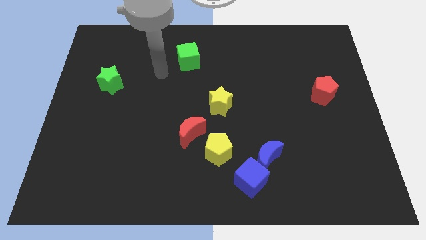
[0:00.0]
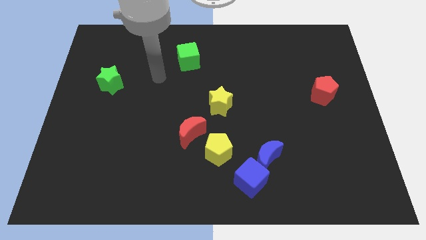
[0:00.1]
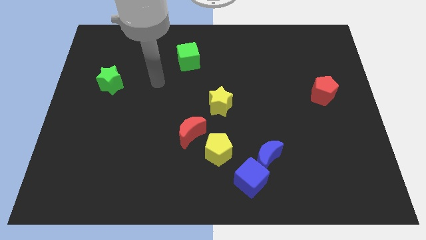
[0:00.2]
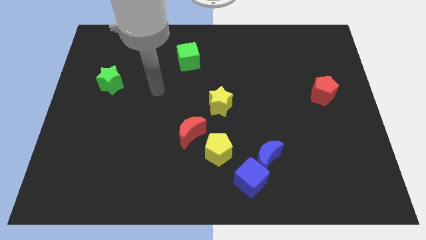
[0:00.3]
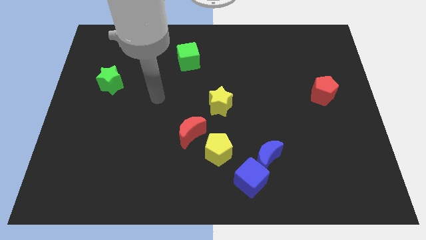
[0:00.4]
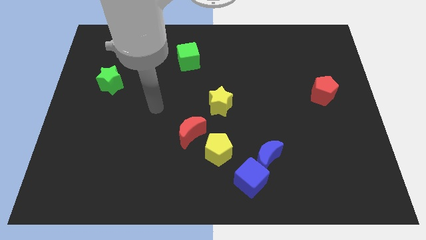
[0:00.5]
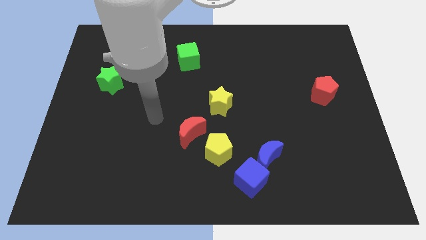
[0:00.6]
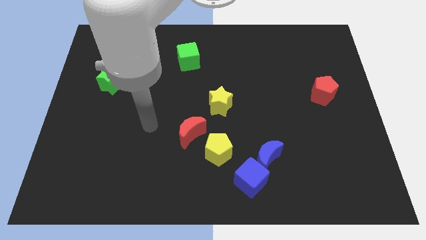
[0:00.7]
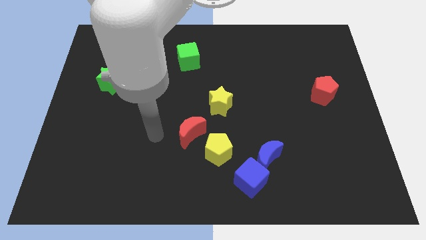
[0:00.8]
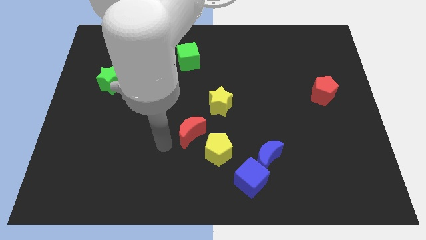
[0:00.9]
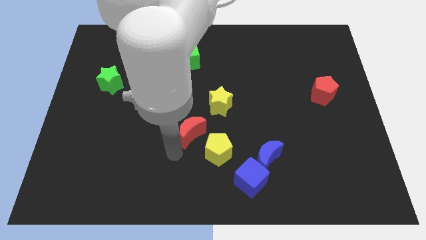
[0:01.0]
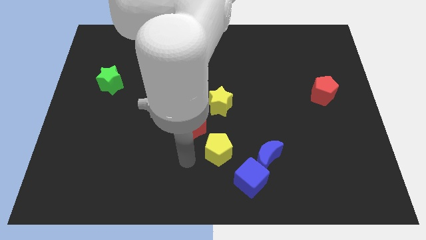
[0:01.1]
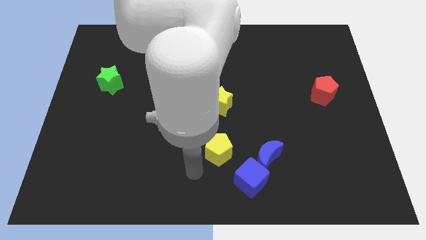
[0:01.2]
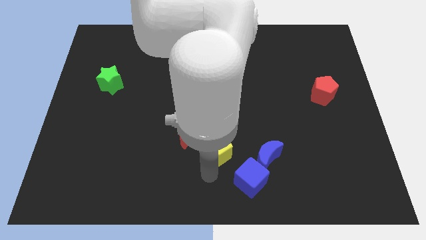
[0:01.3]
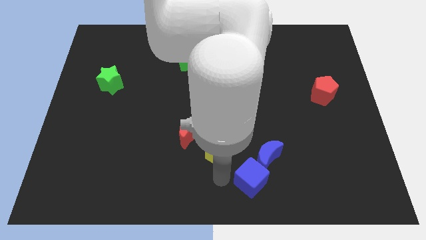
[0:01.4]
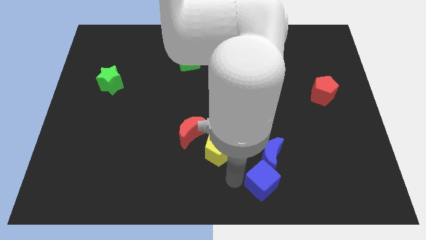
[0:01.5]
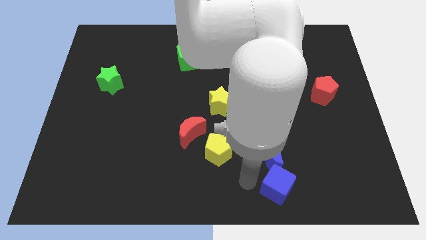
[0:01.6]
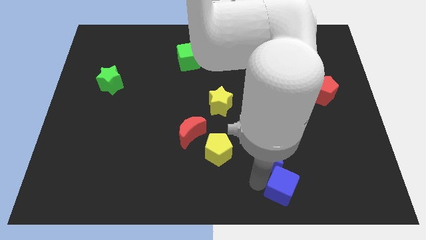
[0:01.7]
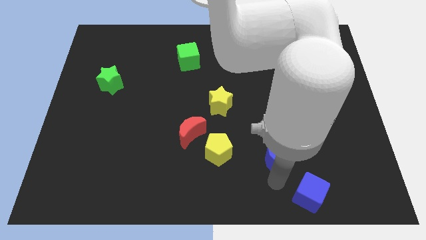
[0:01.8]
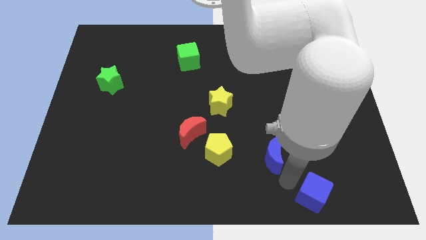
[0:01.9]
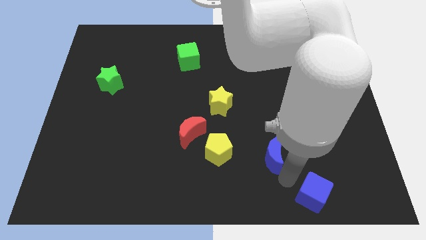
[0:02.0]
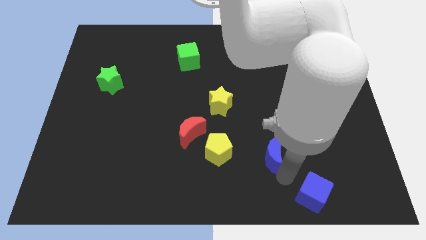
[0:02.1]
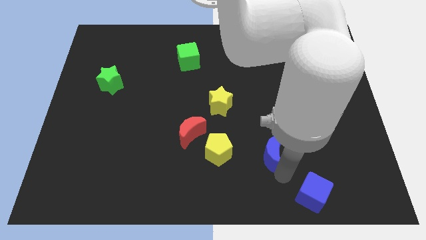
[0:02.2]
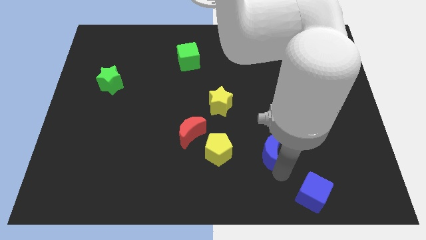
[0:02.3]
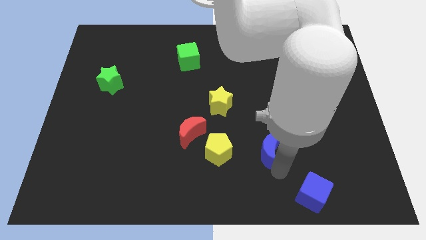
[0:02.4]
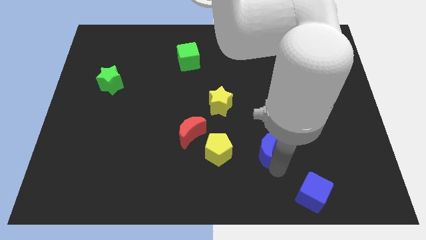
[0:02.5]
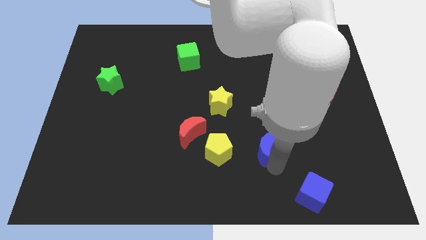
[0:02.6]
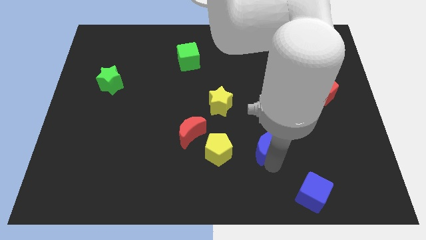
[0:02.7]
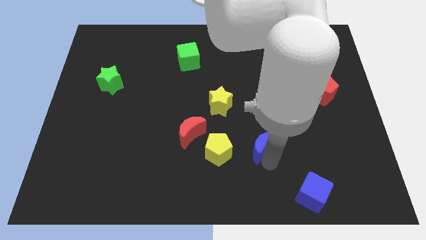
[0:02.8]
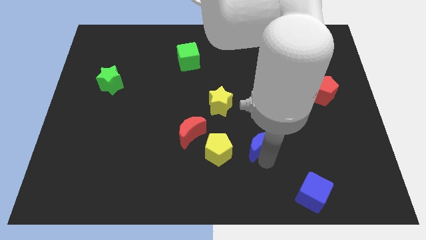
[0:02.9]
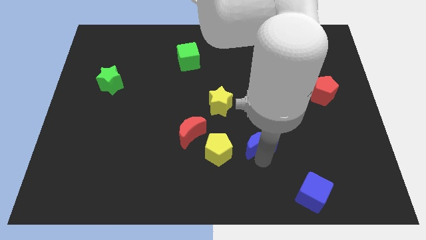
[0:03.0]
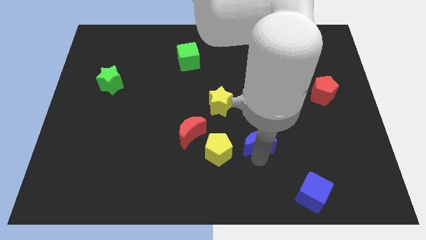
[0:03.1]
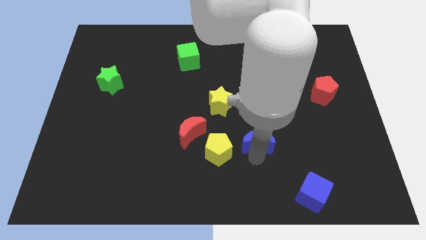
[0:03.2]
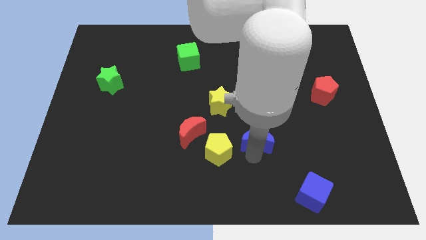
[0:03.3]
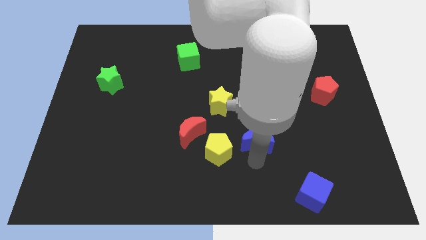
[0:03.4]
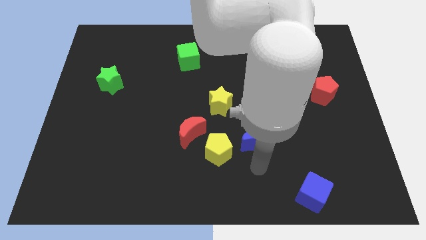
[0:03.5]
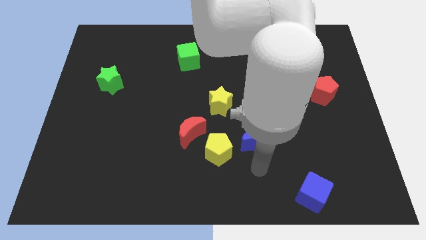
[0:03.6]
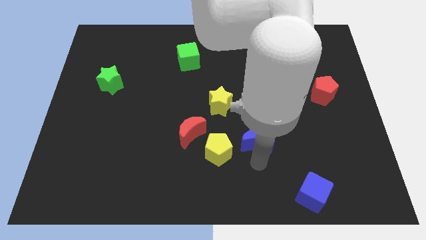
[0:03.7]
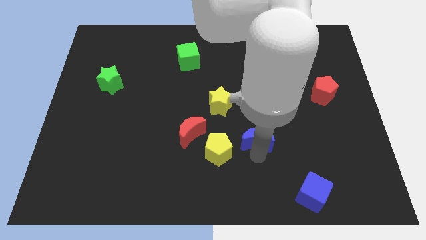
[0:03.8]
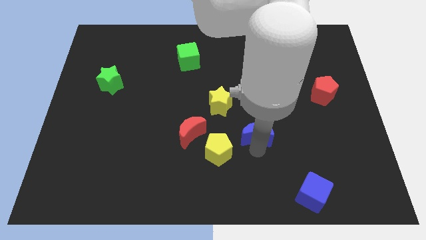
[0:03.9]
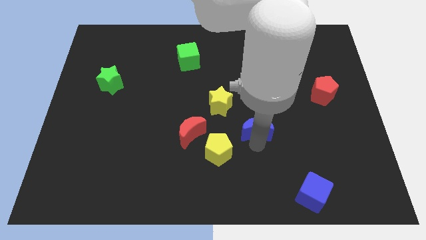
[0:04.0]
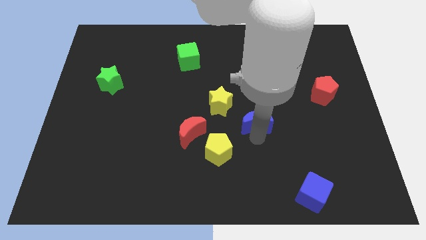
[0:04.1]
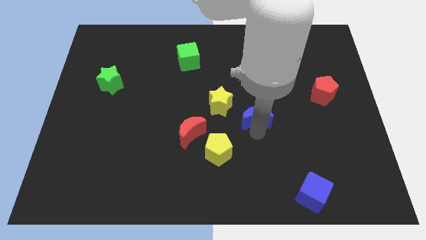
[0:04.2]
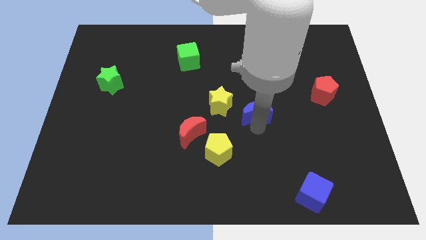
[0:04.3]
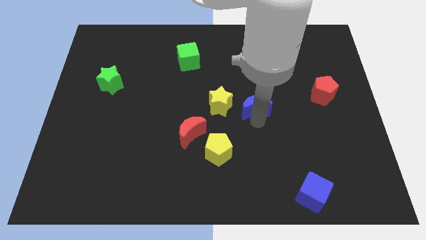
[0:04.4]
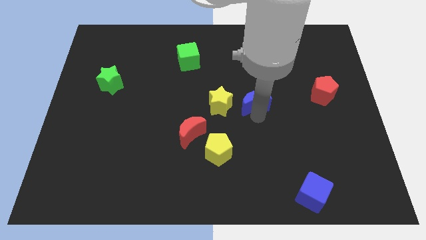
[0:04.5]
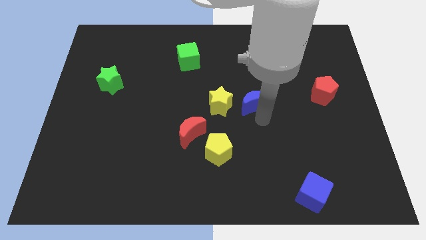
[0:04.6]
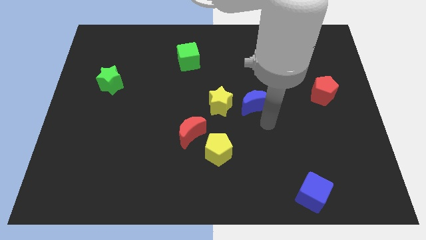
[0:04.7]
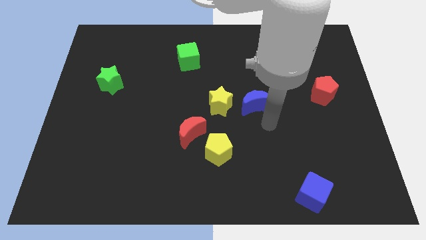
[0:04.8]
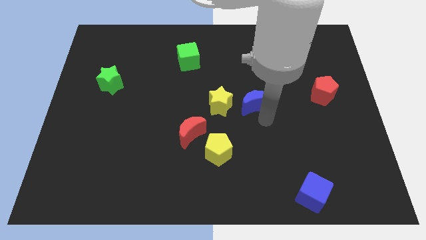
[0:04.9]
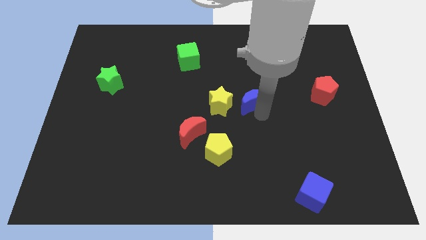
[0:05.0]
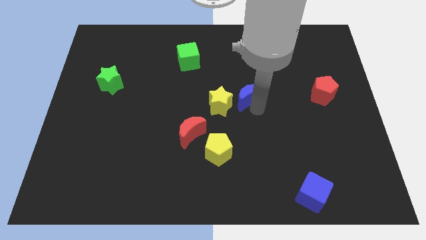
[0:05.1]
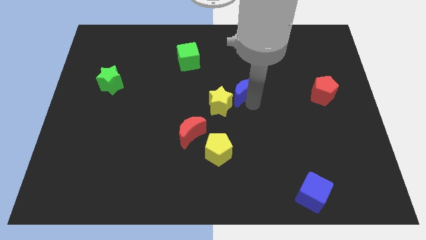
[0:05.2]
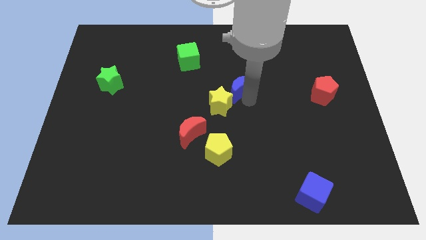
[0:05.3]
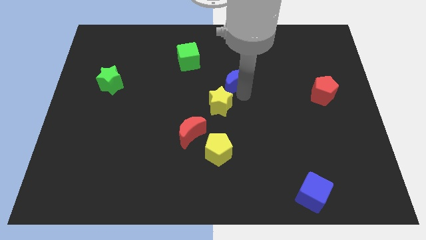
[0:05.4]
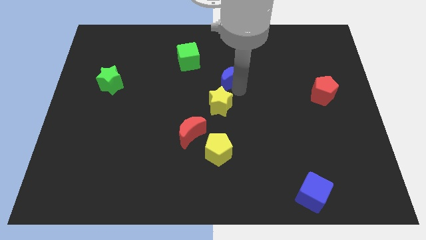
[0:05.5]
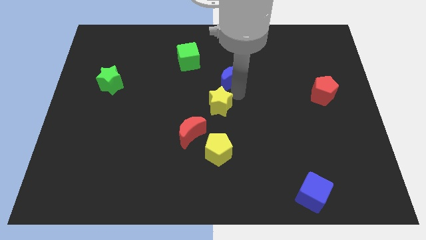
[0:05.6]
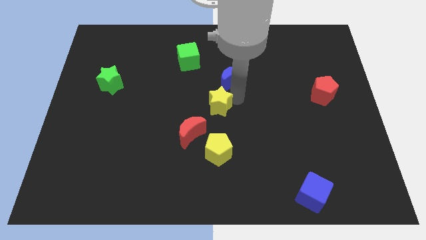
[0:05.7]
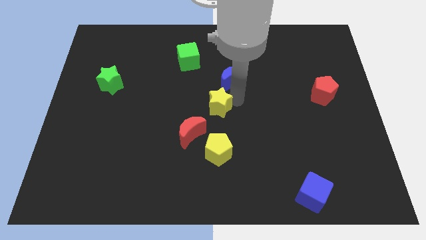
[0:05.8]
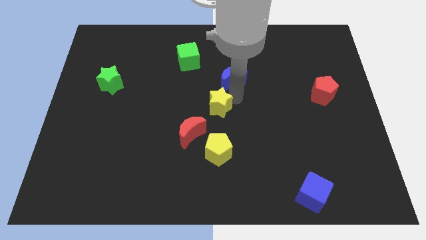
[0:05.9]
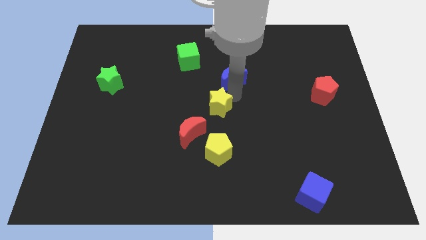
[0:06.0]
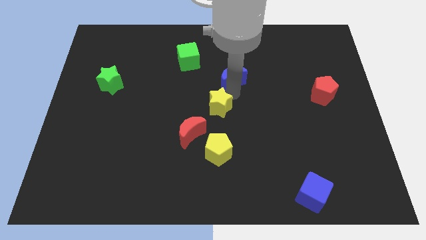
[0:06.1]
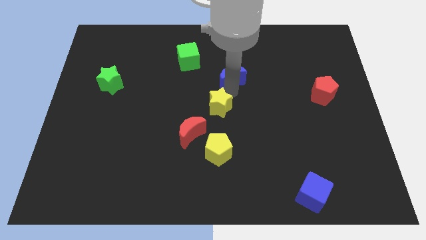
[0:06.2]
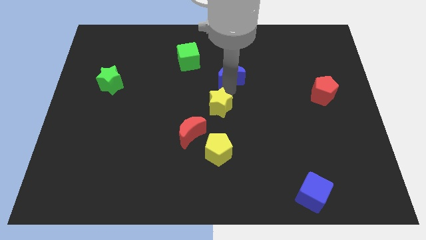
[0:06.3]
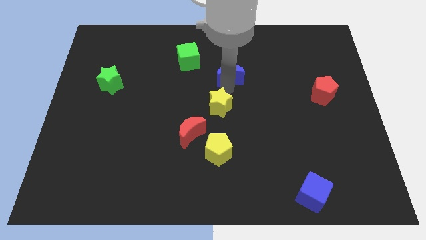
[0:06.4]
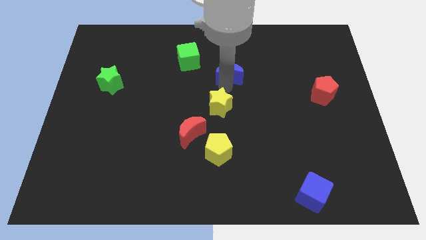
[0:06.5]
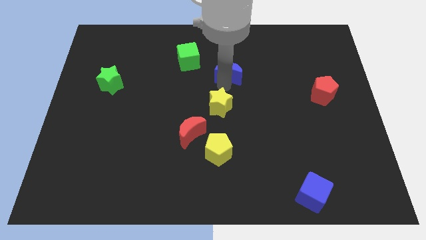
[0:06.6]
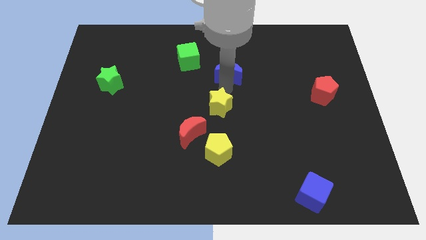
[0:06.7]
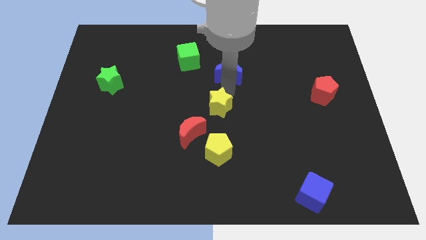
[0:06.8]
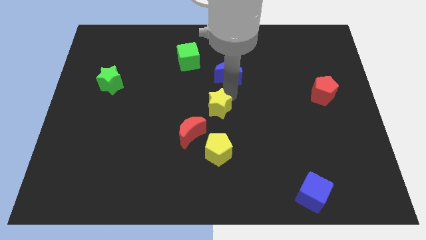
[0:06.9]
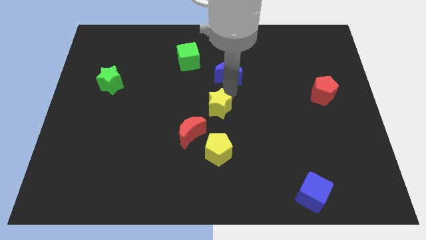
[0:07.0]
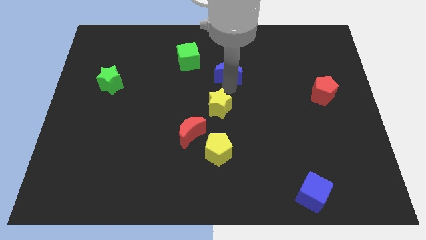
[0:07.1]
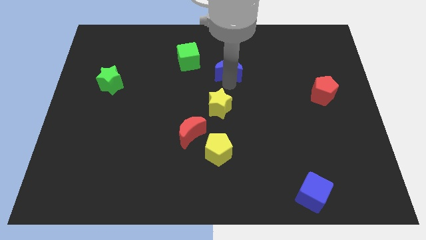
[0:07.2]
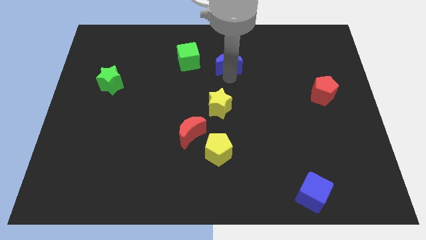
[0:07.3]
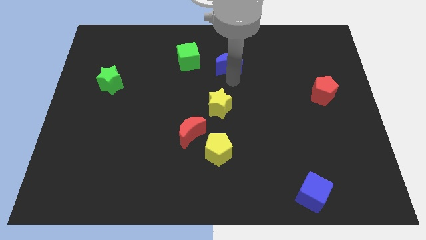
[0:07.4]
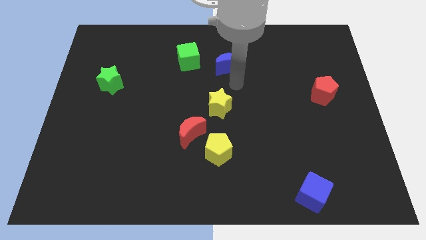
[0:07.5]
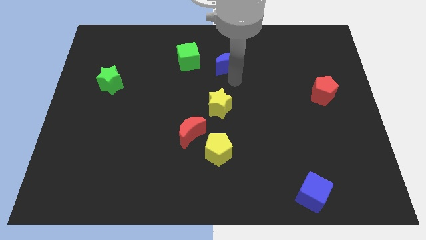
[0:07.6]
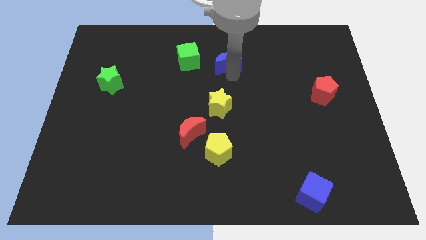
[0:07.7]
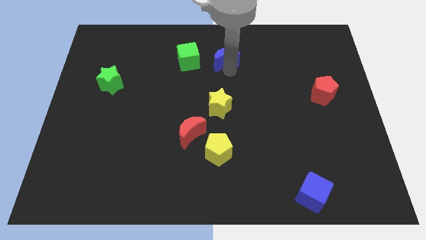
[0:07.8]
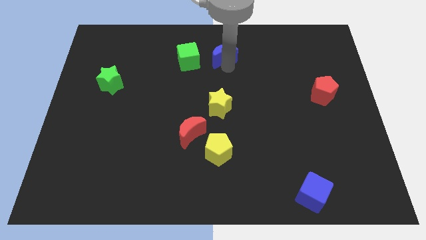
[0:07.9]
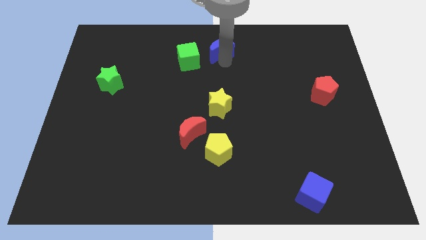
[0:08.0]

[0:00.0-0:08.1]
slide the blue moon to the top side
